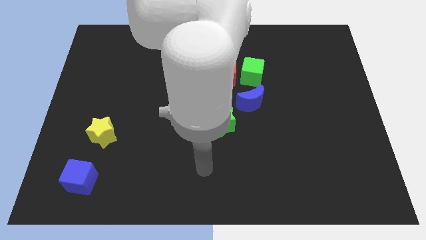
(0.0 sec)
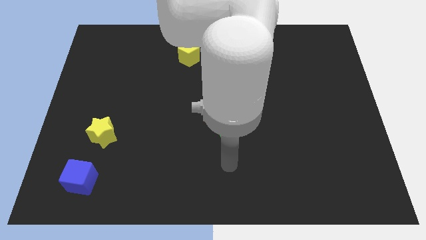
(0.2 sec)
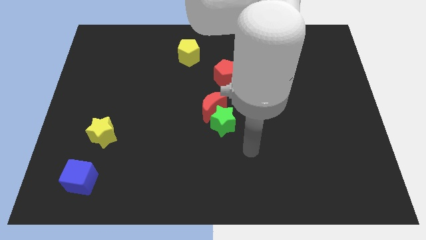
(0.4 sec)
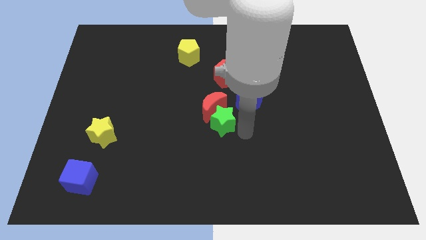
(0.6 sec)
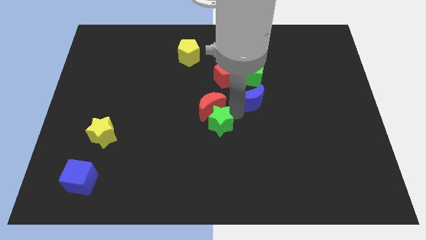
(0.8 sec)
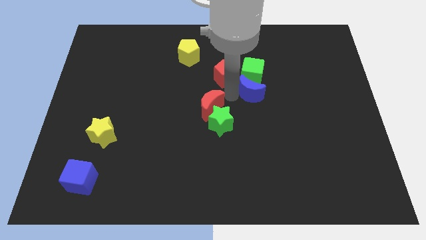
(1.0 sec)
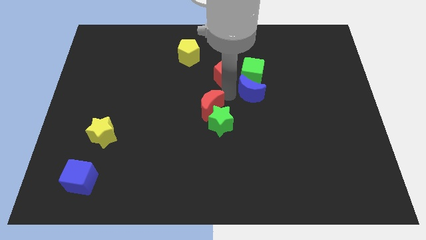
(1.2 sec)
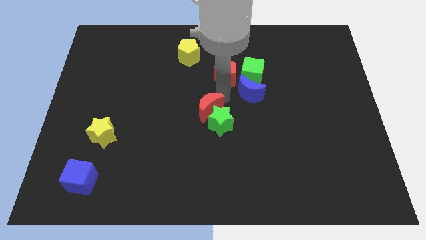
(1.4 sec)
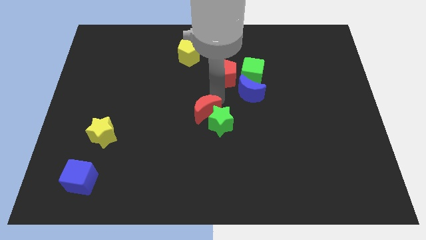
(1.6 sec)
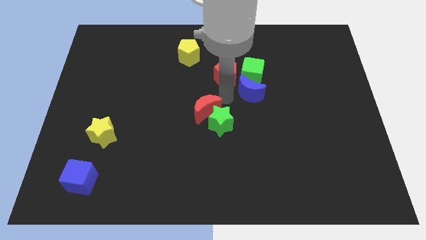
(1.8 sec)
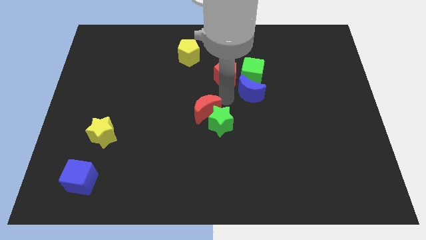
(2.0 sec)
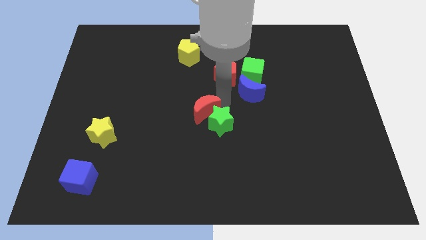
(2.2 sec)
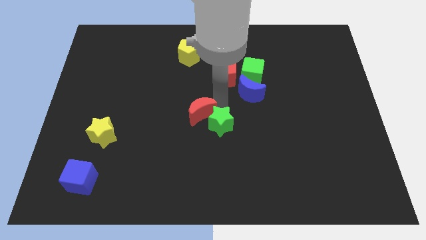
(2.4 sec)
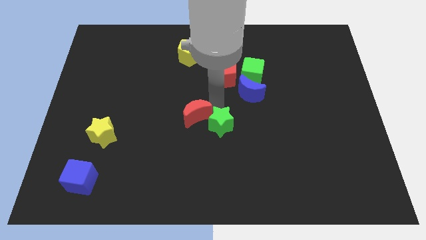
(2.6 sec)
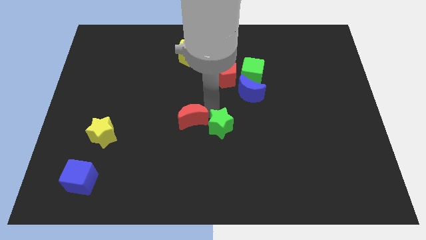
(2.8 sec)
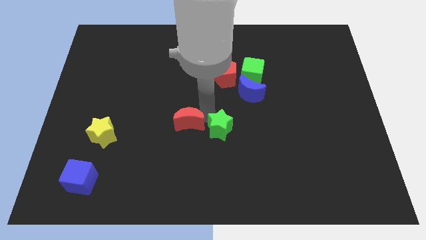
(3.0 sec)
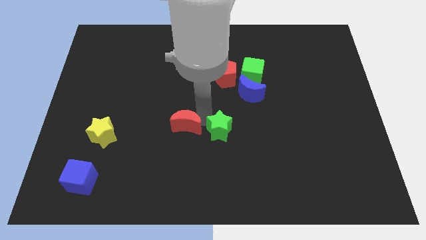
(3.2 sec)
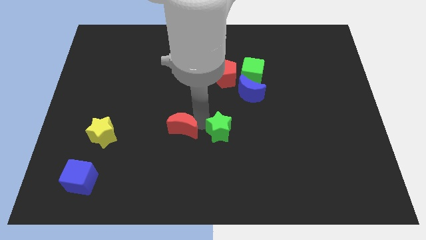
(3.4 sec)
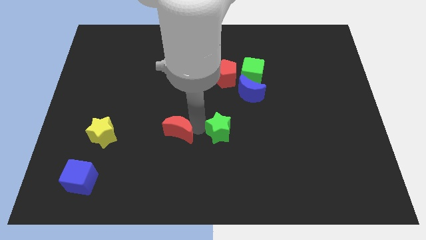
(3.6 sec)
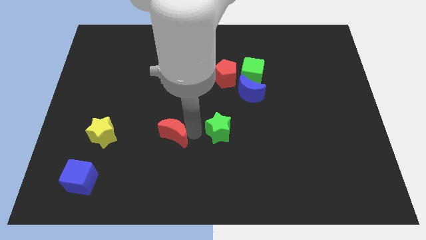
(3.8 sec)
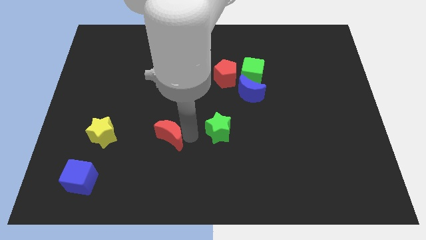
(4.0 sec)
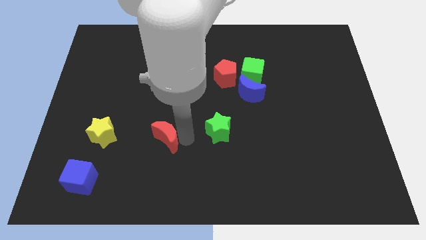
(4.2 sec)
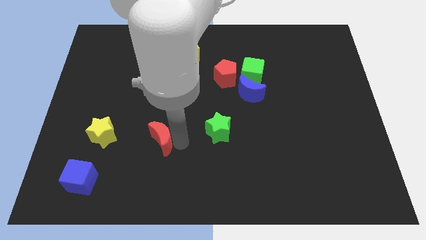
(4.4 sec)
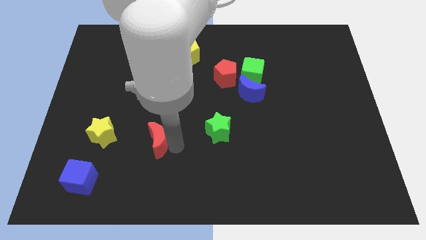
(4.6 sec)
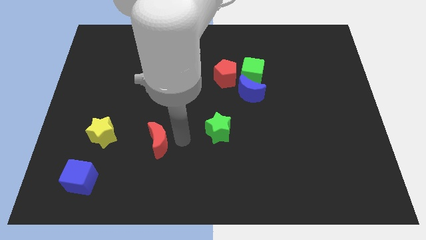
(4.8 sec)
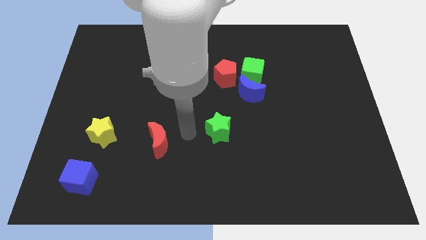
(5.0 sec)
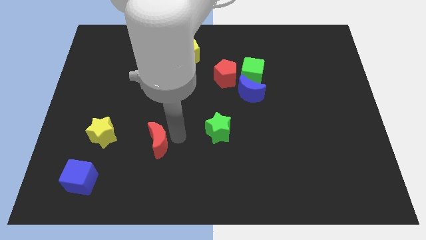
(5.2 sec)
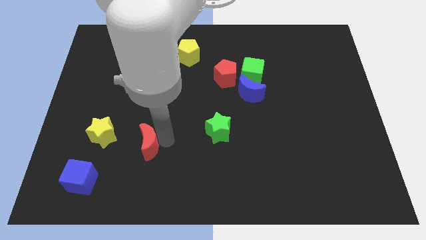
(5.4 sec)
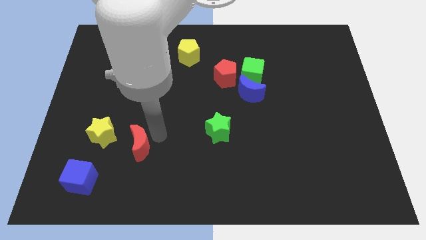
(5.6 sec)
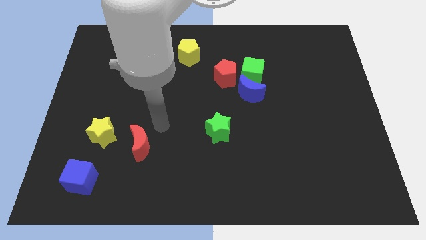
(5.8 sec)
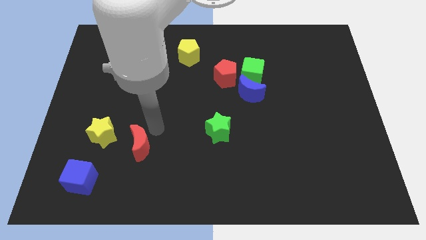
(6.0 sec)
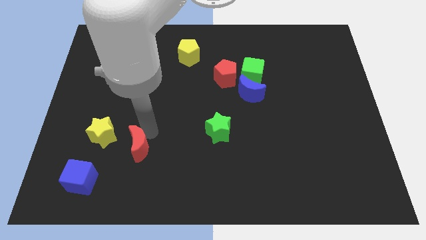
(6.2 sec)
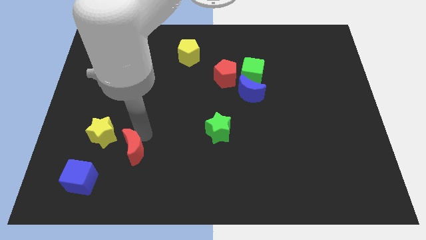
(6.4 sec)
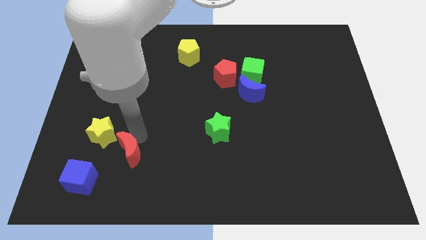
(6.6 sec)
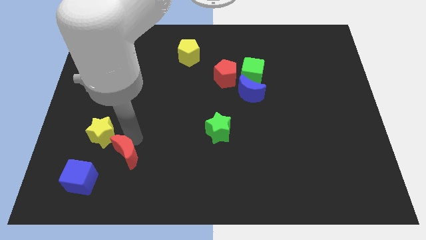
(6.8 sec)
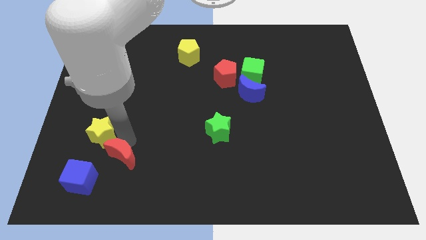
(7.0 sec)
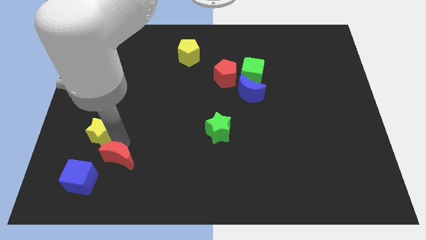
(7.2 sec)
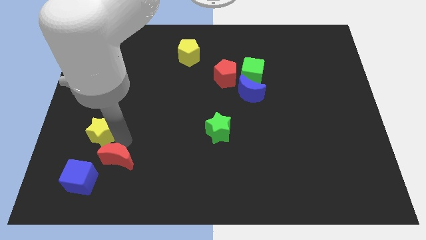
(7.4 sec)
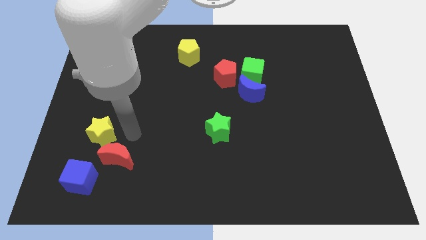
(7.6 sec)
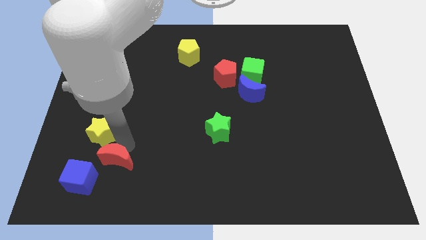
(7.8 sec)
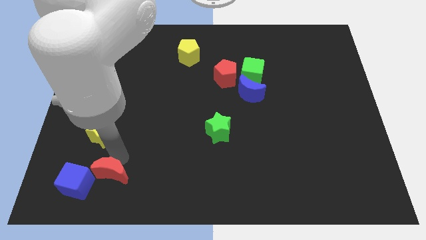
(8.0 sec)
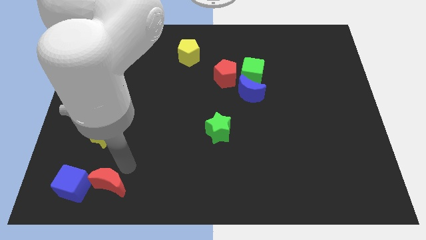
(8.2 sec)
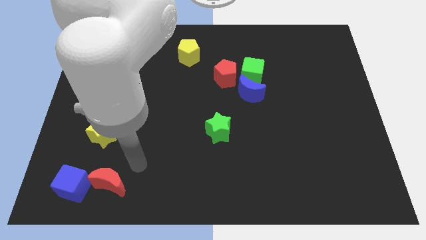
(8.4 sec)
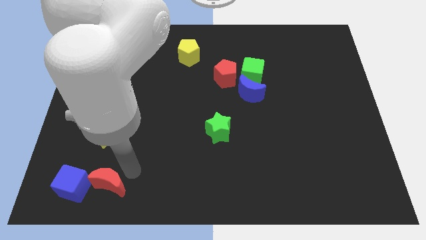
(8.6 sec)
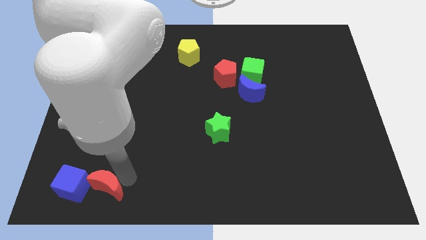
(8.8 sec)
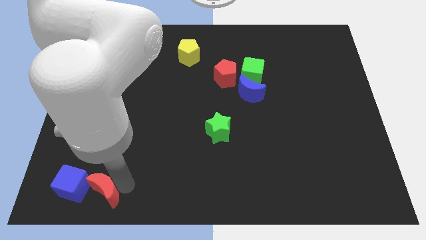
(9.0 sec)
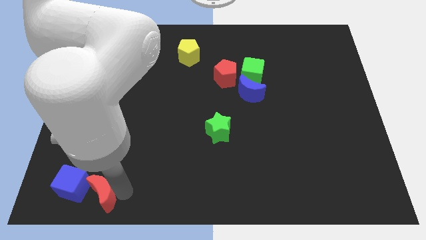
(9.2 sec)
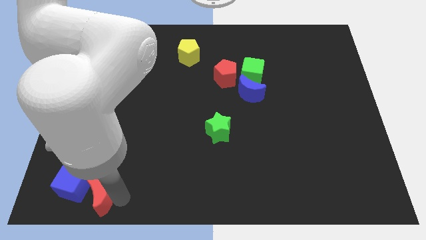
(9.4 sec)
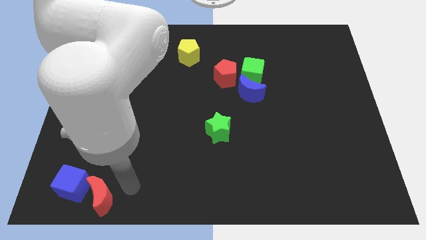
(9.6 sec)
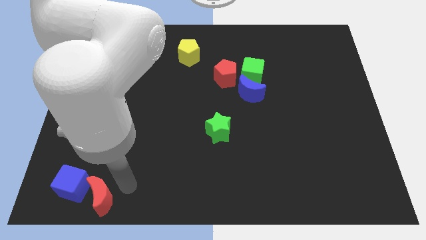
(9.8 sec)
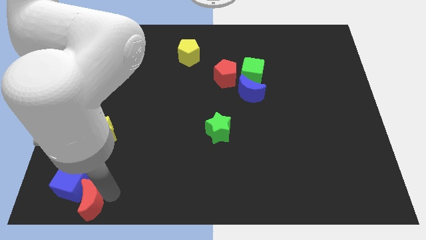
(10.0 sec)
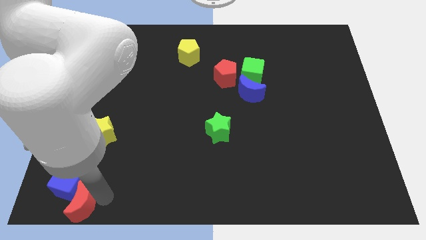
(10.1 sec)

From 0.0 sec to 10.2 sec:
push the red moon to the bottom left of the board

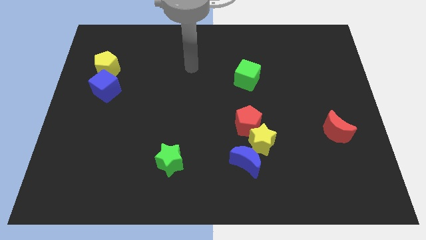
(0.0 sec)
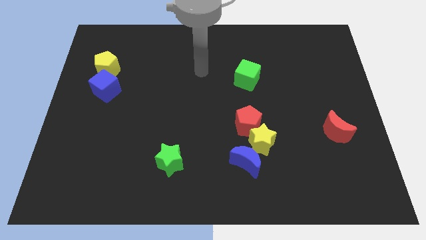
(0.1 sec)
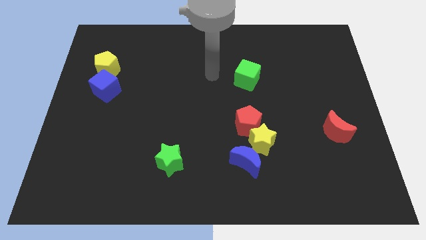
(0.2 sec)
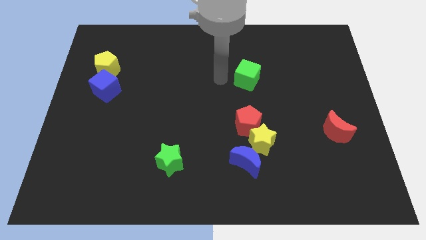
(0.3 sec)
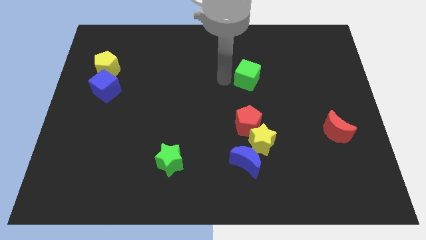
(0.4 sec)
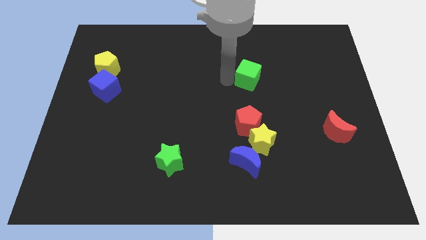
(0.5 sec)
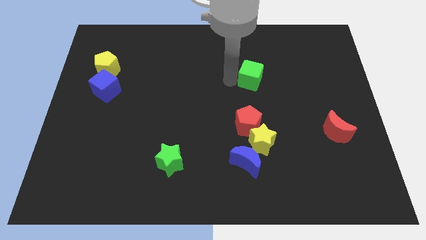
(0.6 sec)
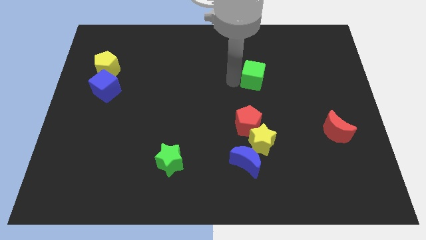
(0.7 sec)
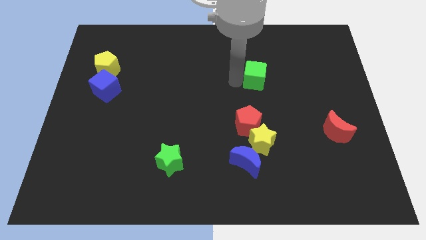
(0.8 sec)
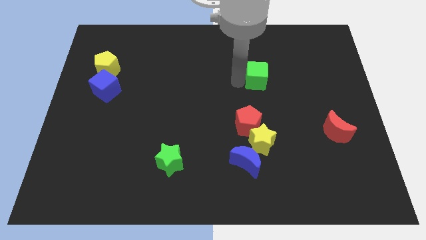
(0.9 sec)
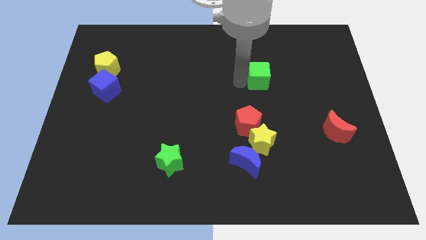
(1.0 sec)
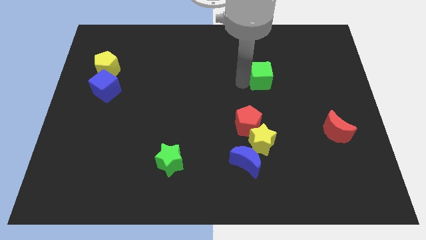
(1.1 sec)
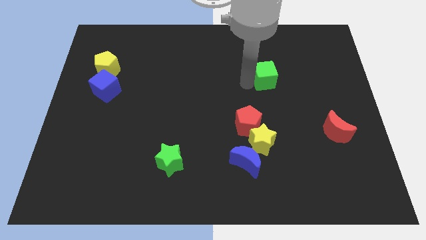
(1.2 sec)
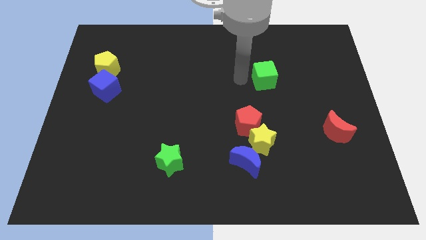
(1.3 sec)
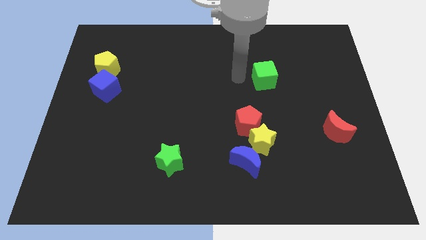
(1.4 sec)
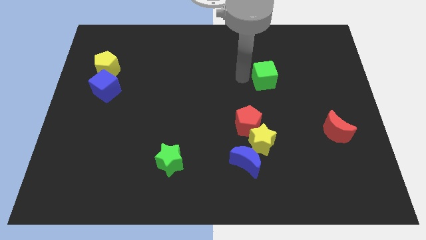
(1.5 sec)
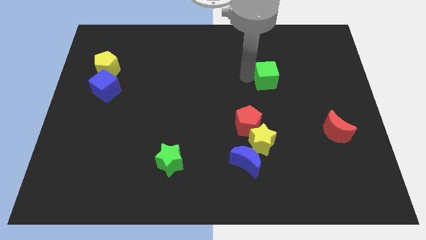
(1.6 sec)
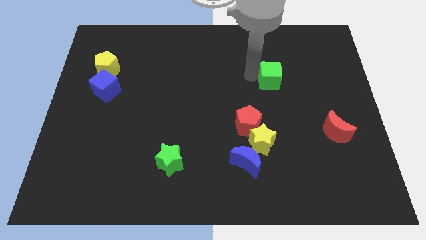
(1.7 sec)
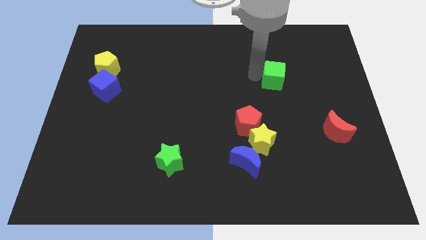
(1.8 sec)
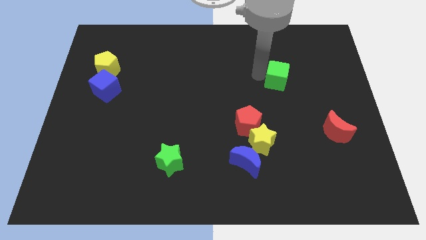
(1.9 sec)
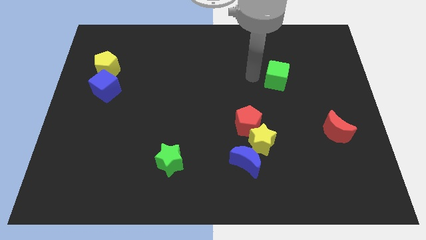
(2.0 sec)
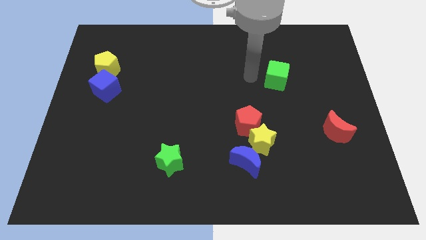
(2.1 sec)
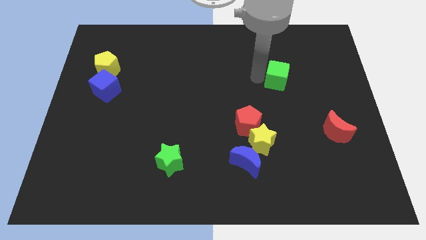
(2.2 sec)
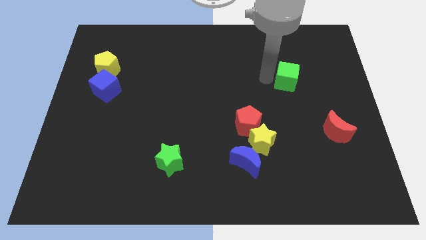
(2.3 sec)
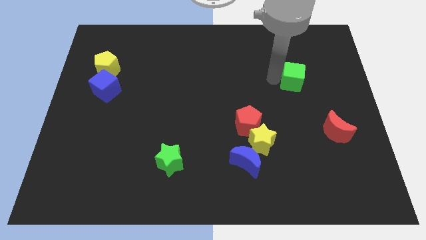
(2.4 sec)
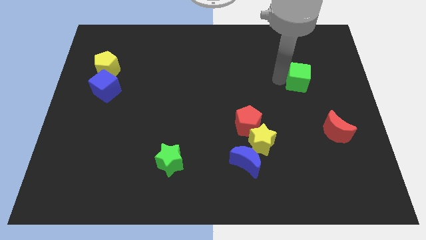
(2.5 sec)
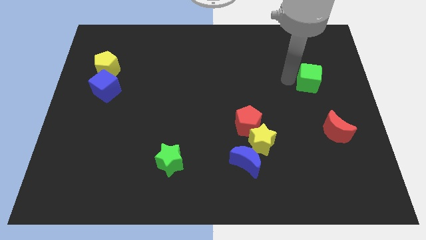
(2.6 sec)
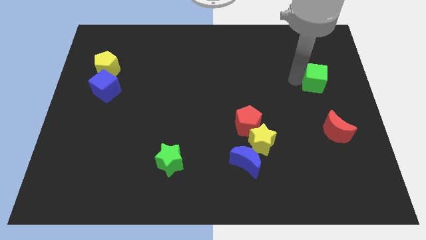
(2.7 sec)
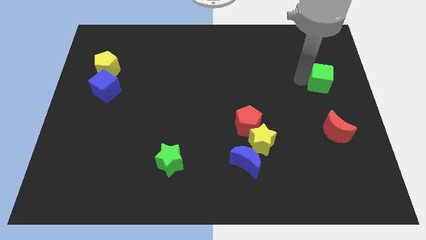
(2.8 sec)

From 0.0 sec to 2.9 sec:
move the green cube to the center right
